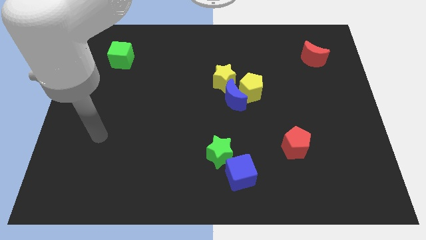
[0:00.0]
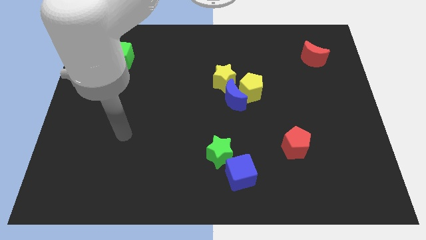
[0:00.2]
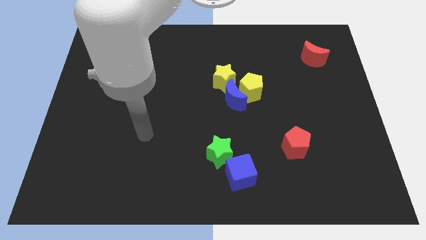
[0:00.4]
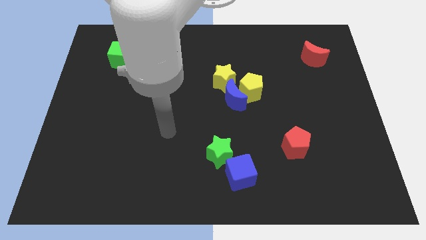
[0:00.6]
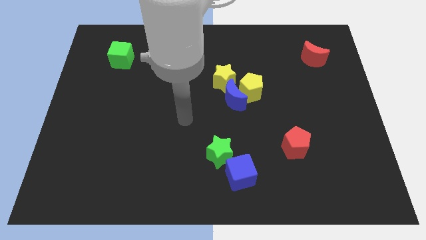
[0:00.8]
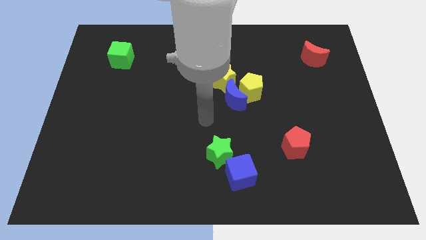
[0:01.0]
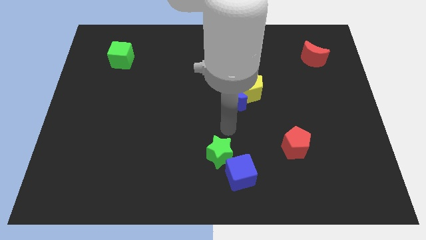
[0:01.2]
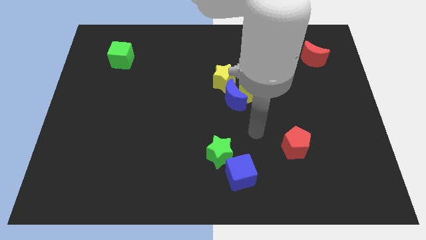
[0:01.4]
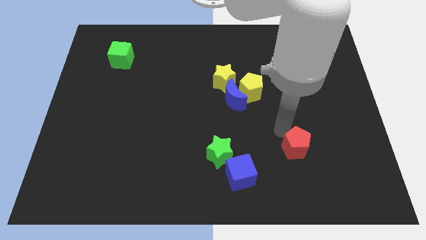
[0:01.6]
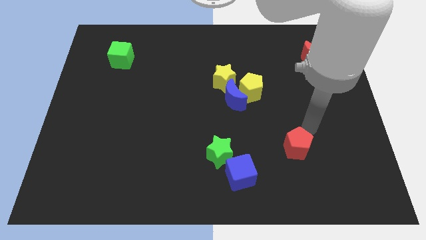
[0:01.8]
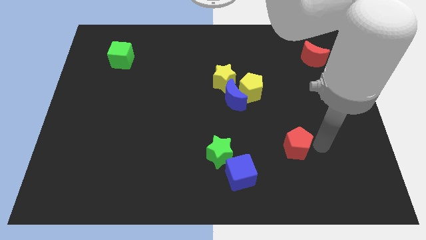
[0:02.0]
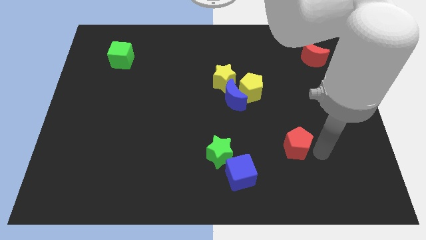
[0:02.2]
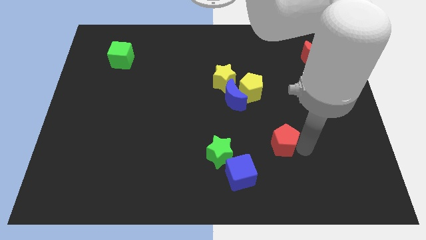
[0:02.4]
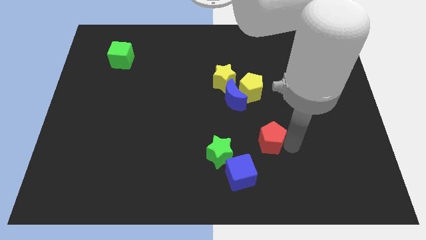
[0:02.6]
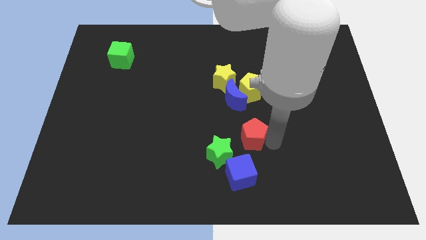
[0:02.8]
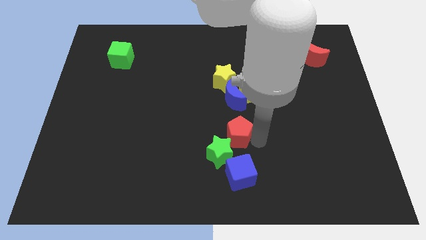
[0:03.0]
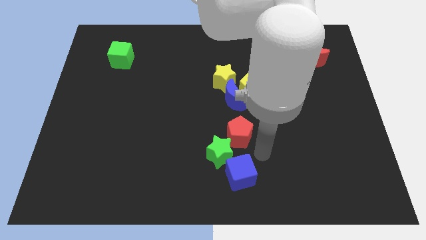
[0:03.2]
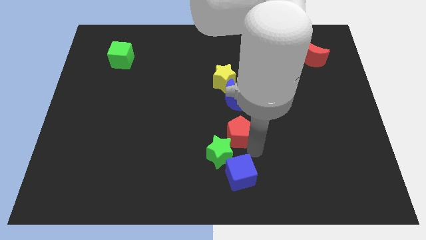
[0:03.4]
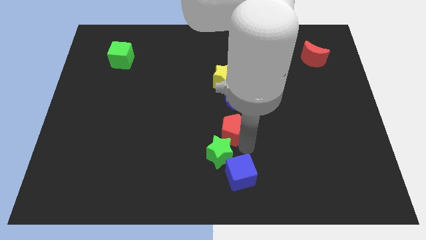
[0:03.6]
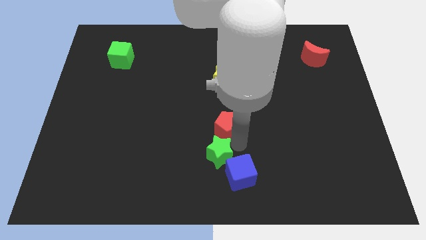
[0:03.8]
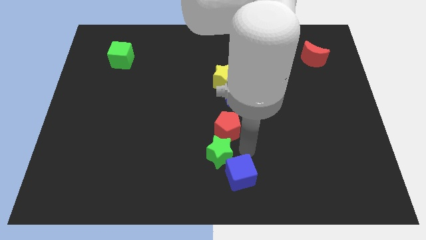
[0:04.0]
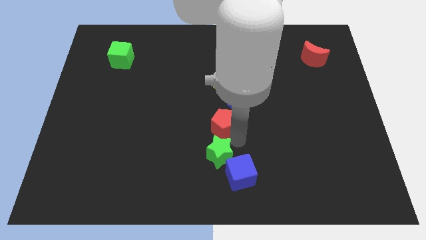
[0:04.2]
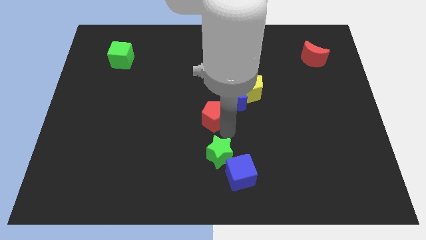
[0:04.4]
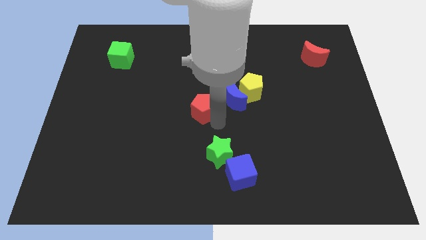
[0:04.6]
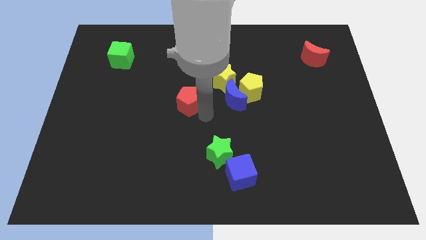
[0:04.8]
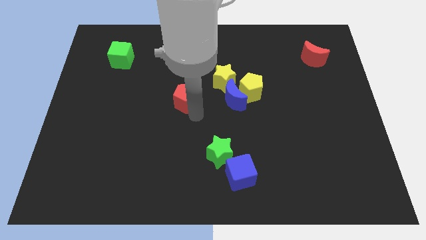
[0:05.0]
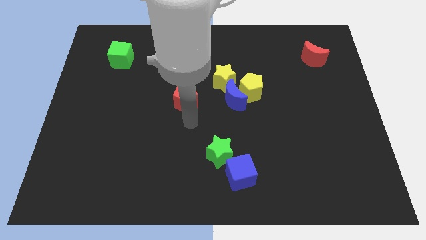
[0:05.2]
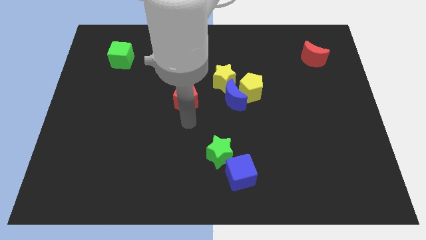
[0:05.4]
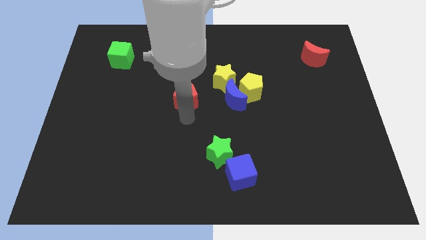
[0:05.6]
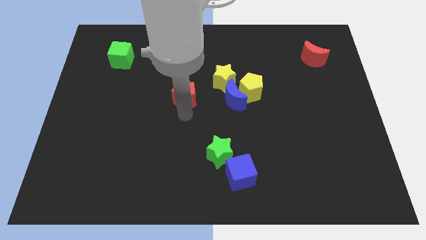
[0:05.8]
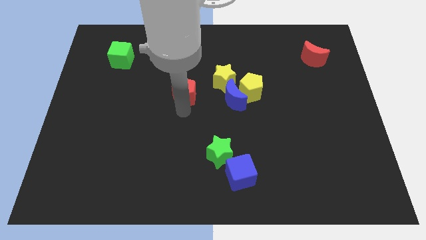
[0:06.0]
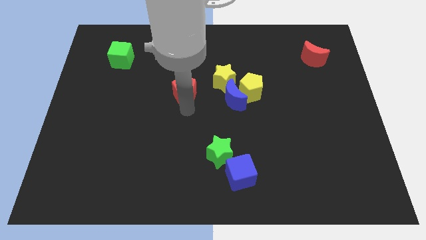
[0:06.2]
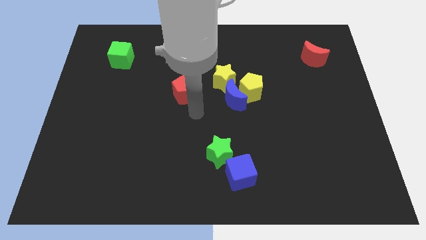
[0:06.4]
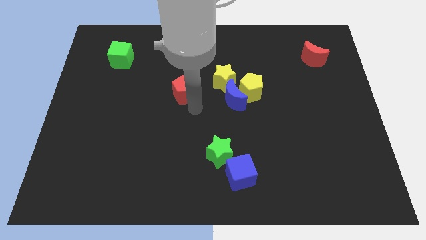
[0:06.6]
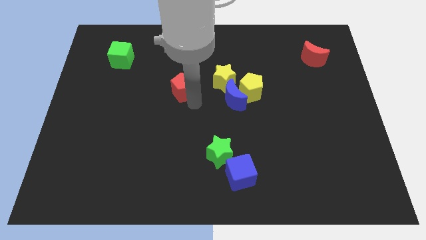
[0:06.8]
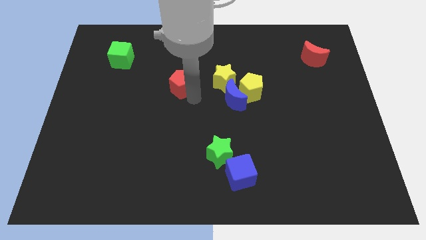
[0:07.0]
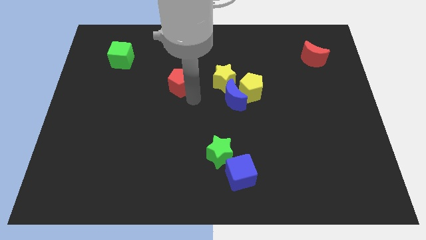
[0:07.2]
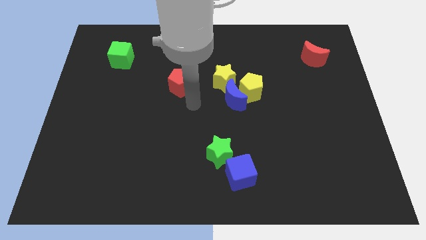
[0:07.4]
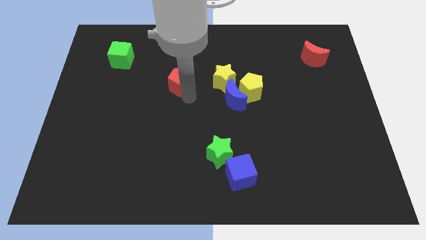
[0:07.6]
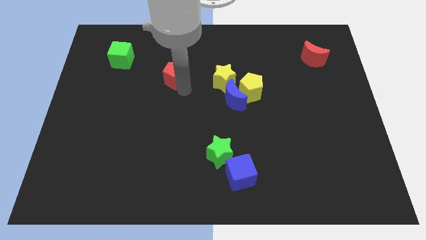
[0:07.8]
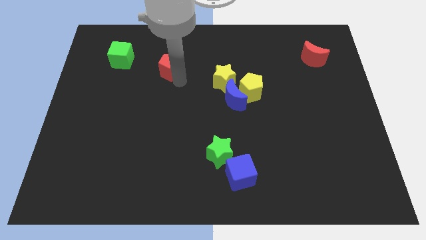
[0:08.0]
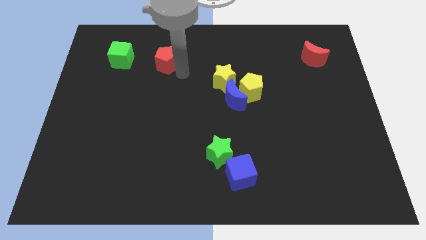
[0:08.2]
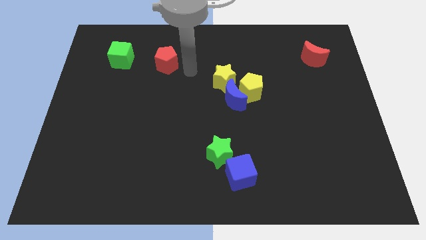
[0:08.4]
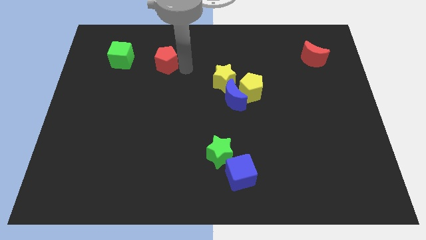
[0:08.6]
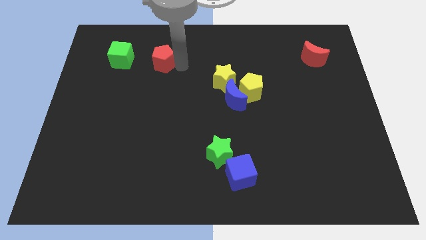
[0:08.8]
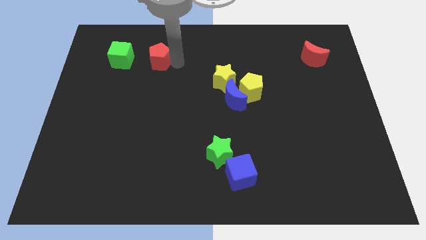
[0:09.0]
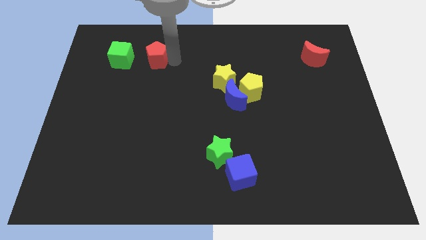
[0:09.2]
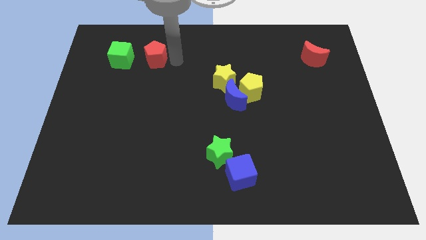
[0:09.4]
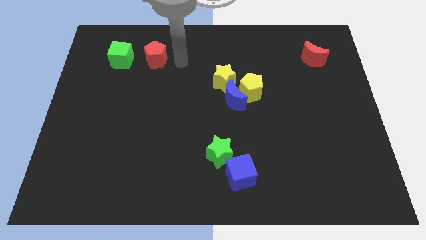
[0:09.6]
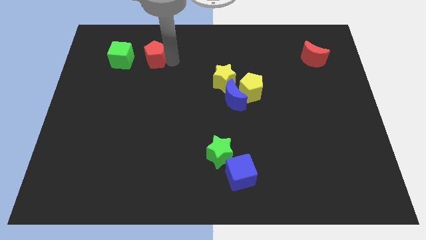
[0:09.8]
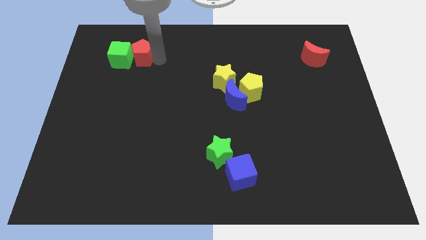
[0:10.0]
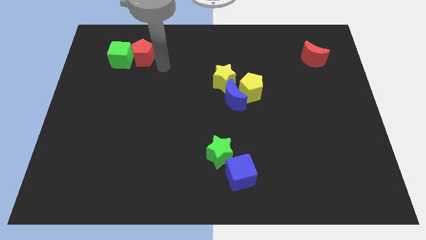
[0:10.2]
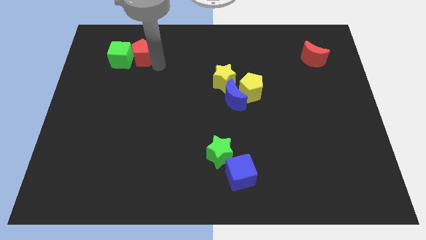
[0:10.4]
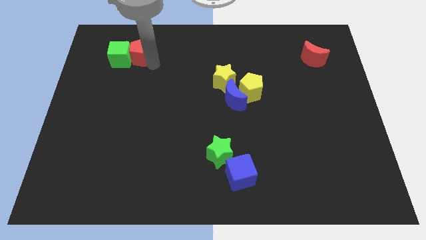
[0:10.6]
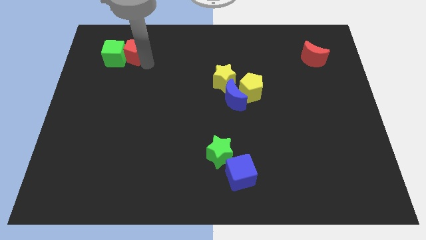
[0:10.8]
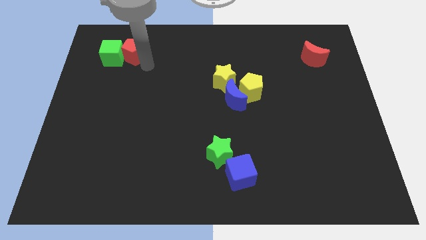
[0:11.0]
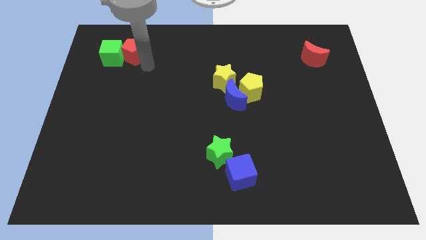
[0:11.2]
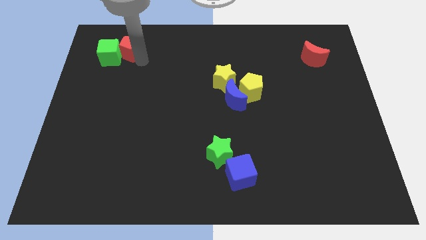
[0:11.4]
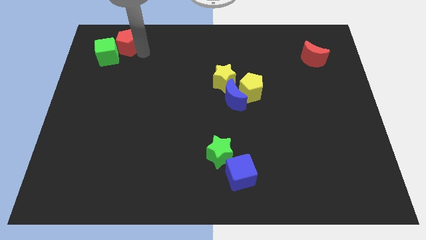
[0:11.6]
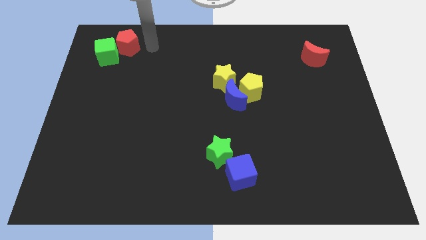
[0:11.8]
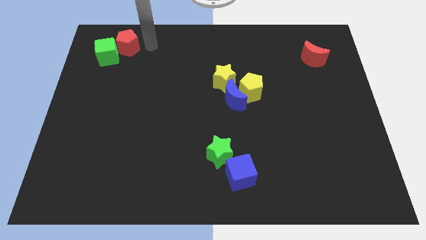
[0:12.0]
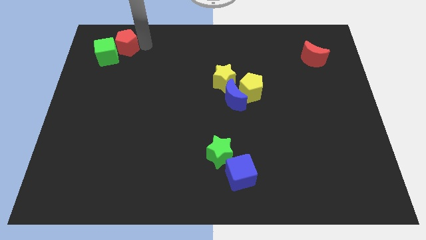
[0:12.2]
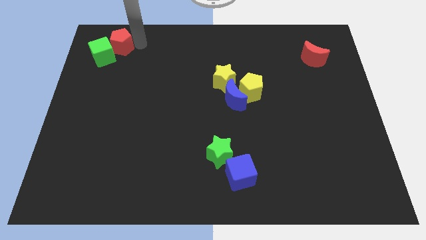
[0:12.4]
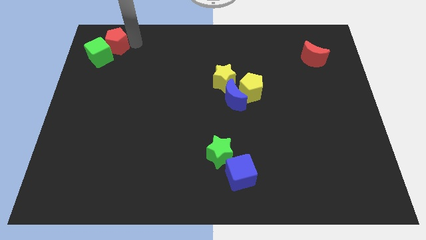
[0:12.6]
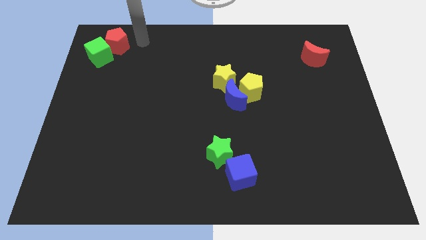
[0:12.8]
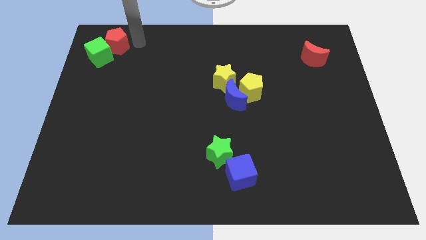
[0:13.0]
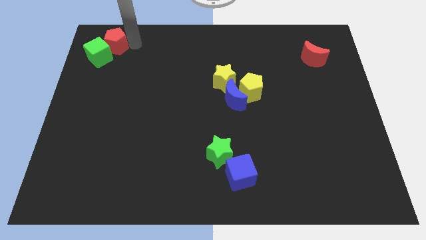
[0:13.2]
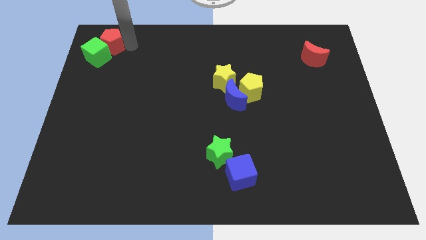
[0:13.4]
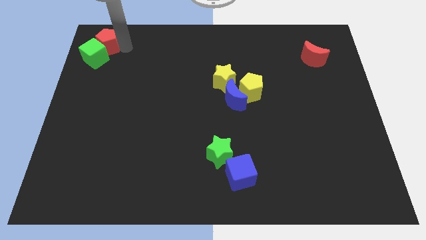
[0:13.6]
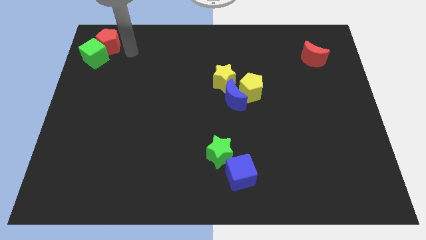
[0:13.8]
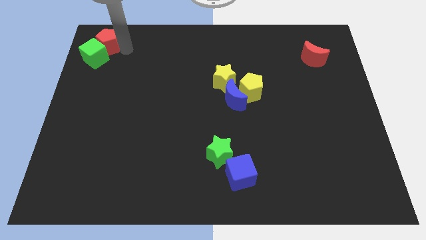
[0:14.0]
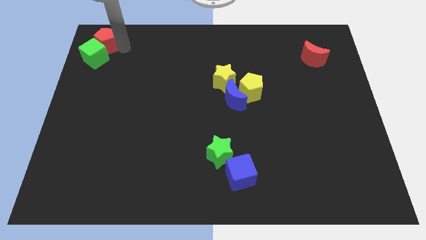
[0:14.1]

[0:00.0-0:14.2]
put the red pentagon to the top left of the board
